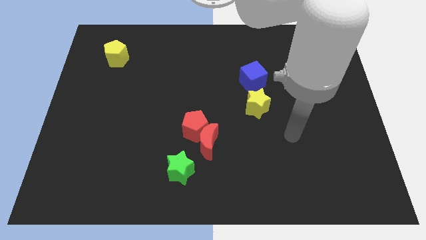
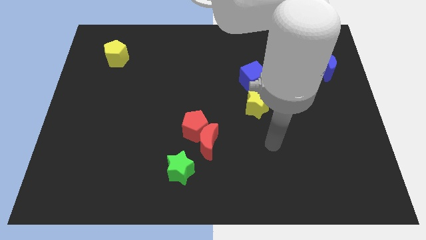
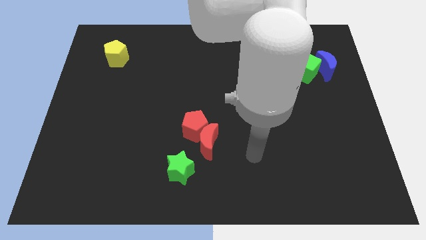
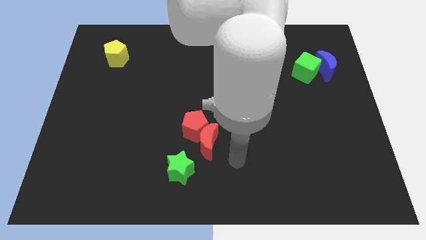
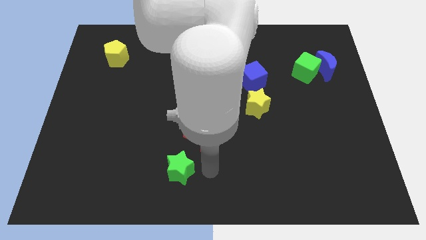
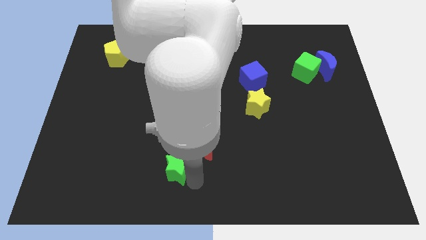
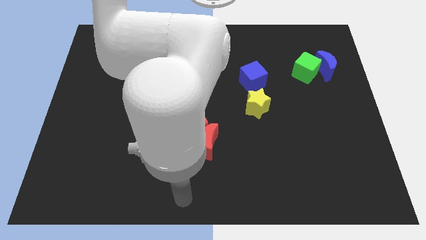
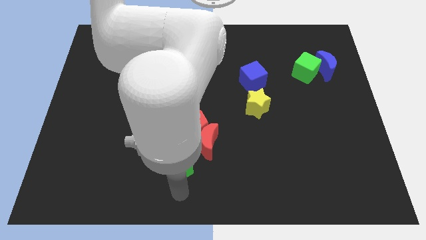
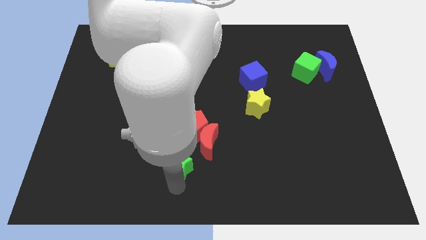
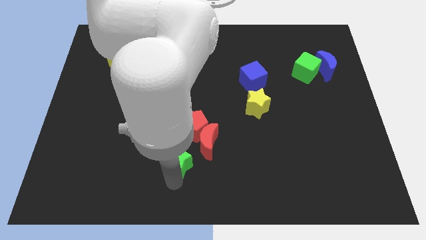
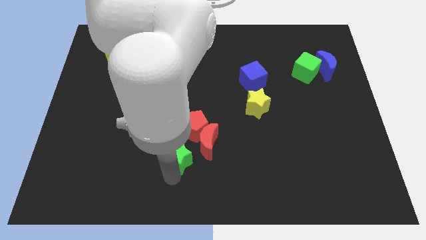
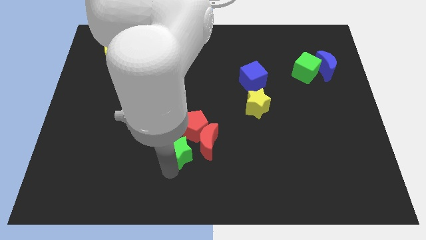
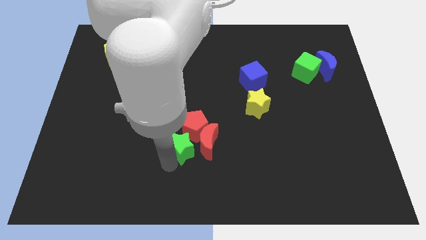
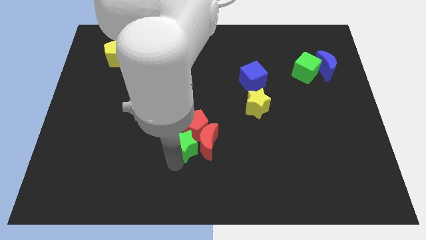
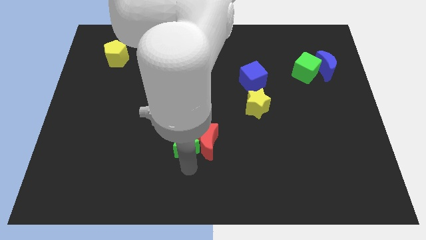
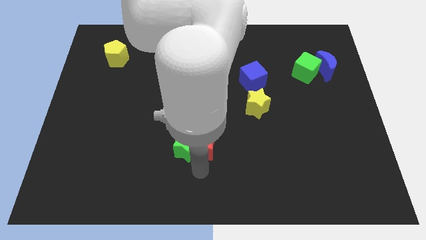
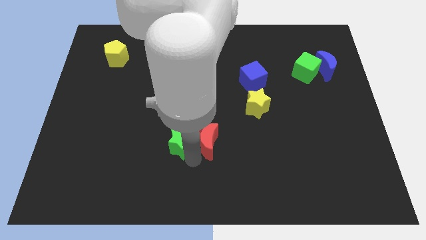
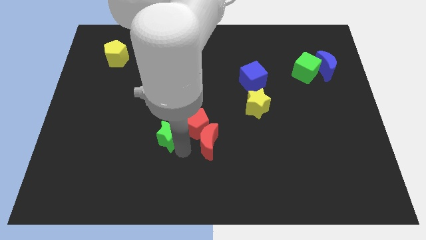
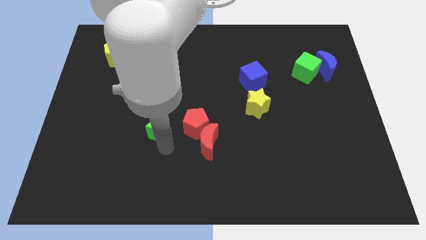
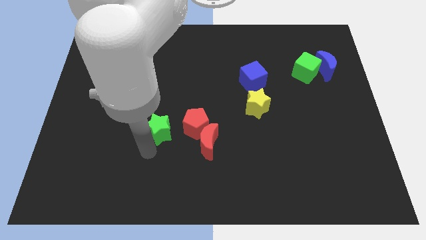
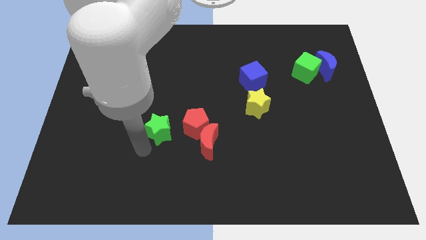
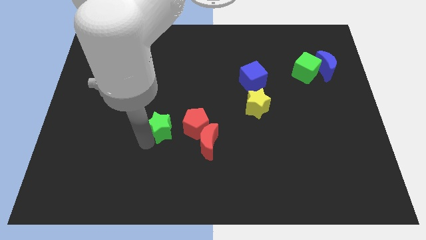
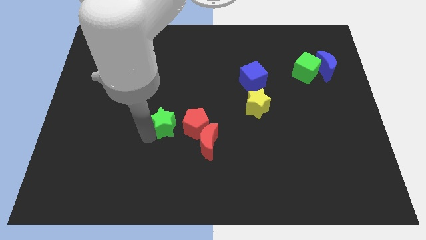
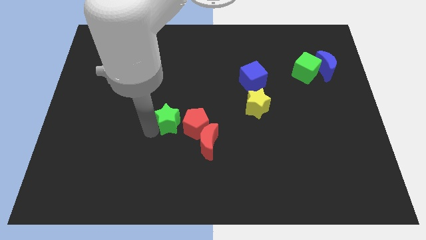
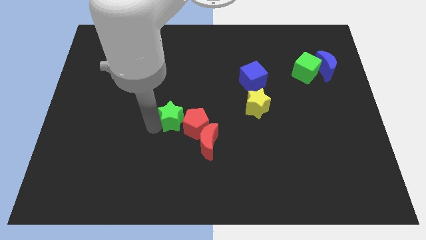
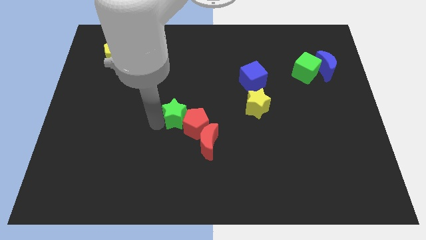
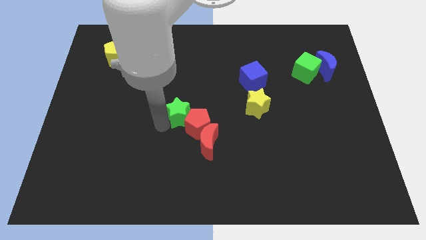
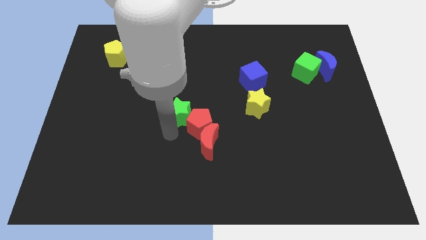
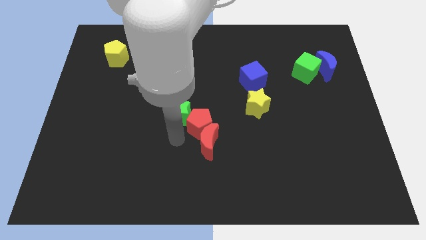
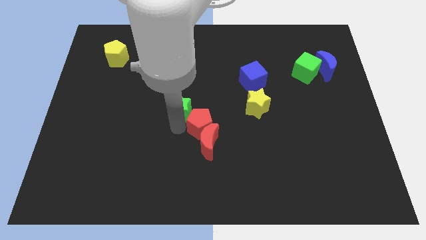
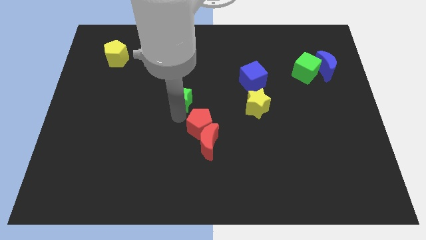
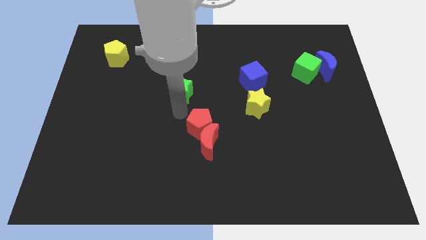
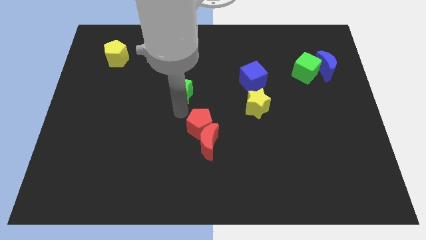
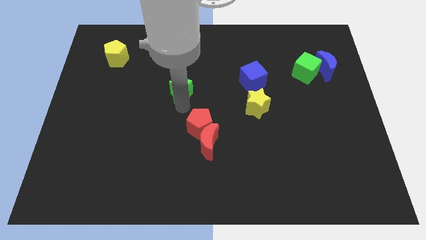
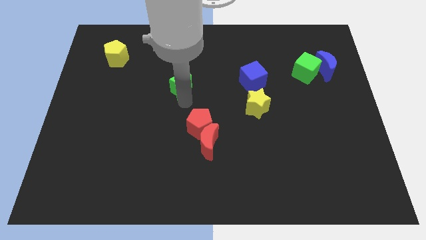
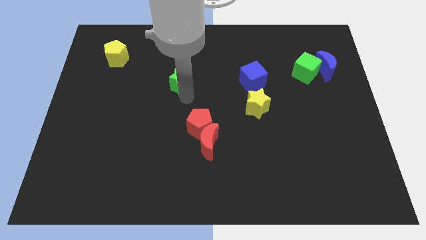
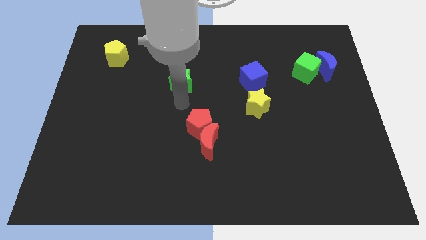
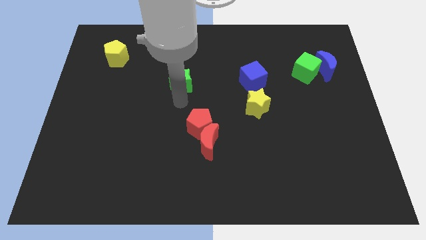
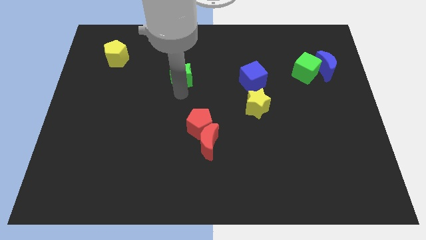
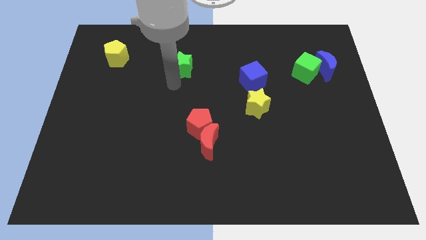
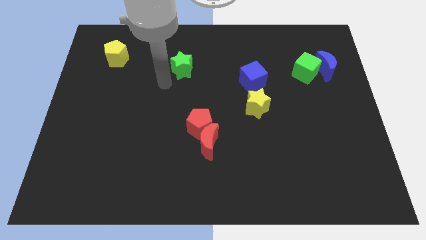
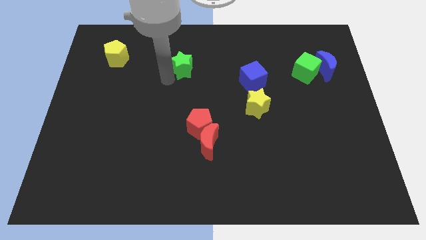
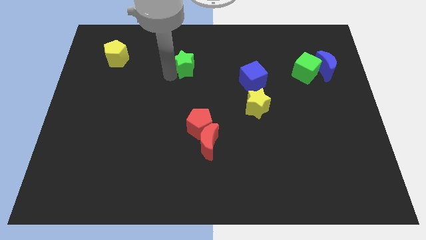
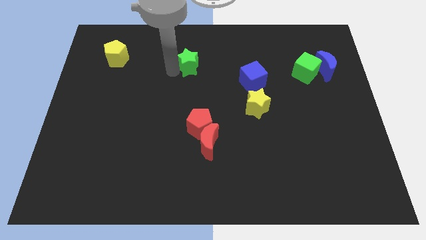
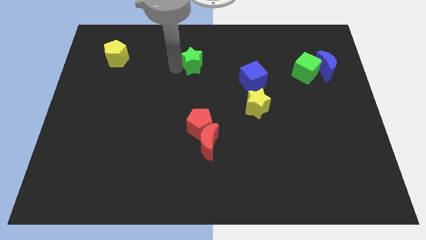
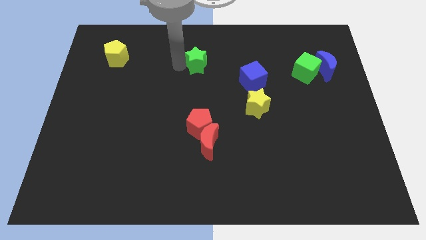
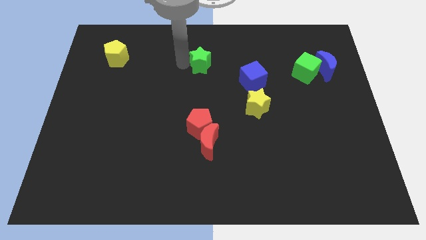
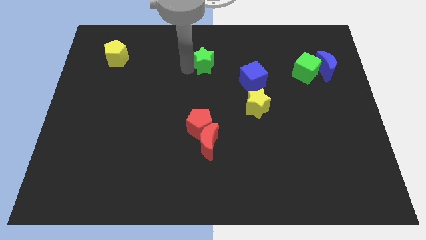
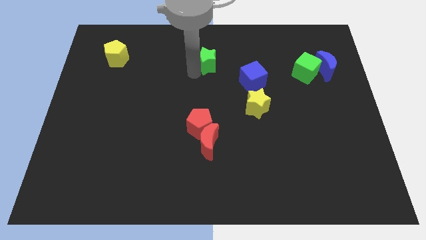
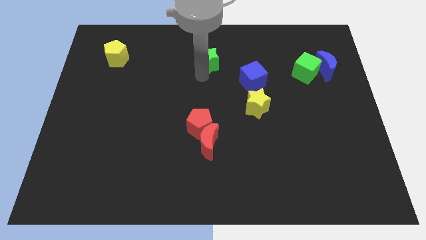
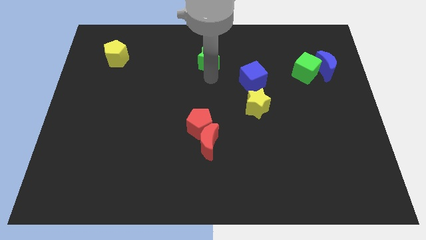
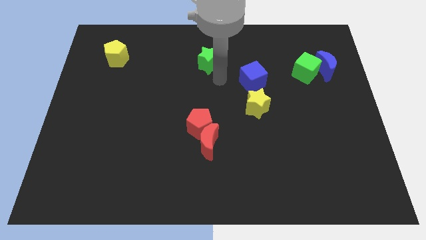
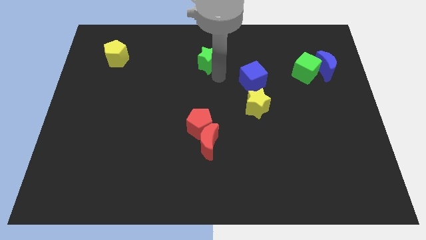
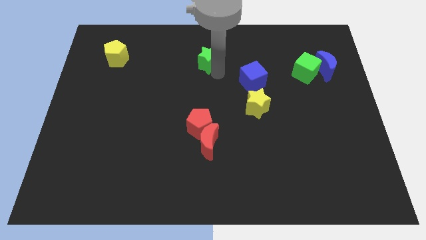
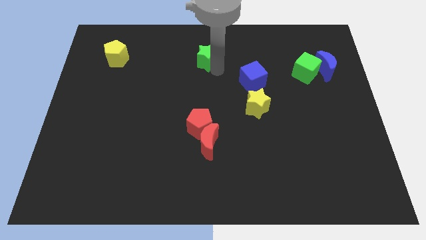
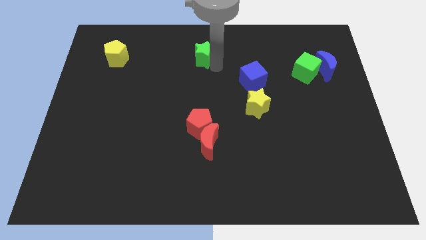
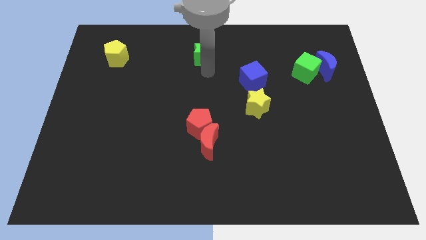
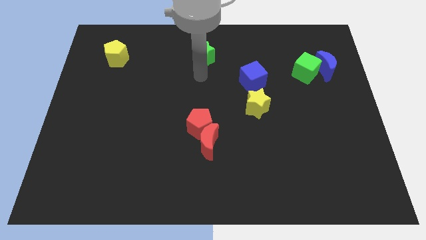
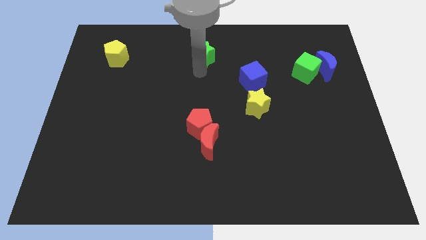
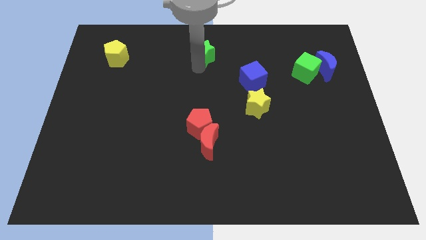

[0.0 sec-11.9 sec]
move the green star to the towards your base

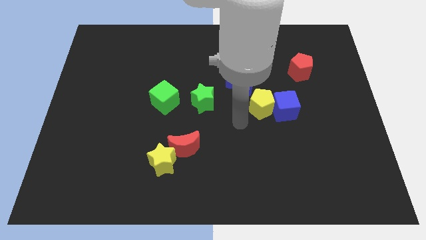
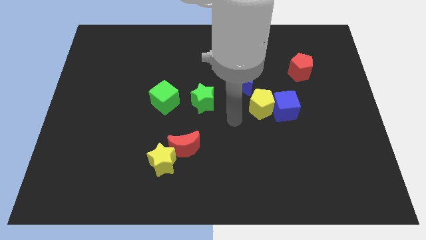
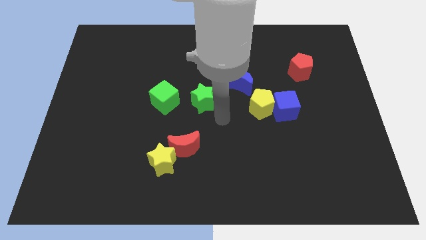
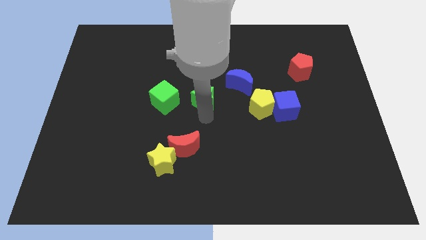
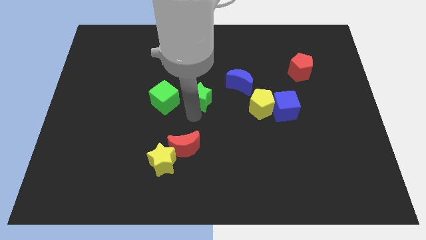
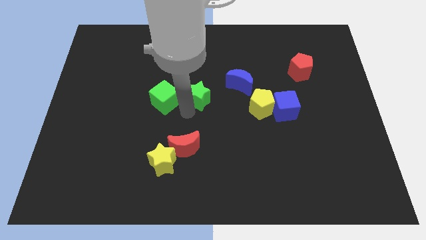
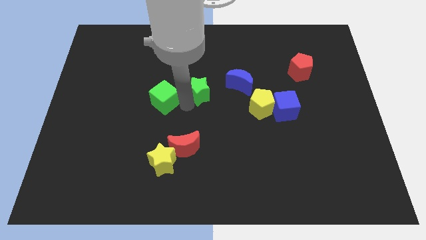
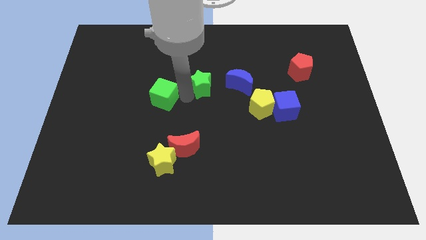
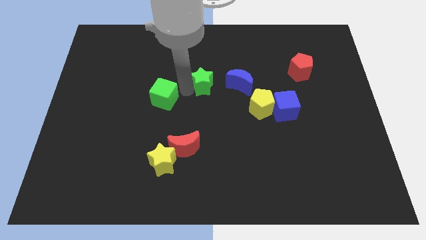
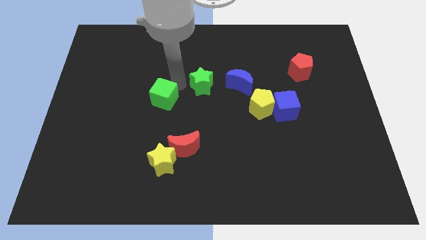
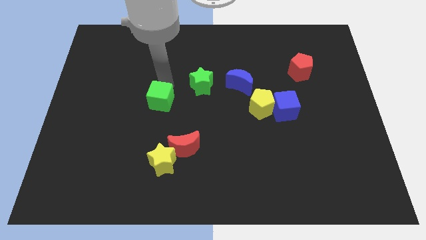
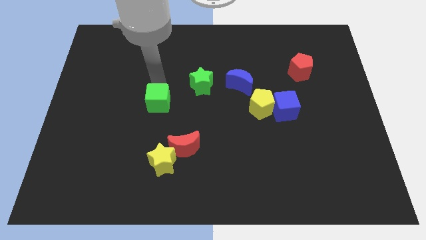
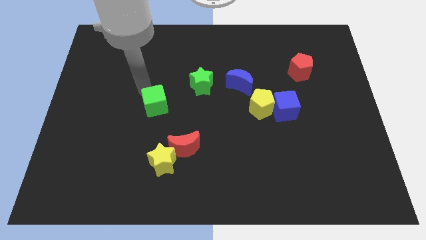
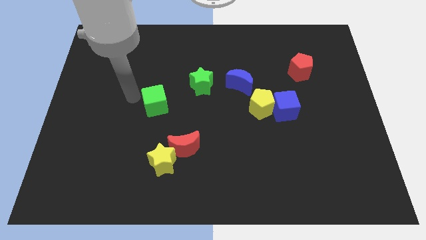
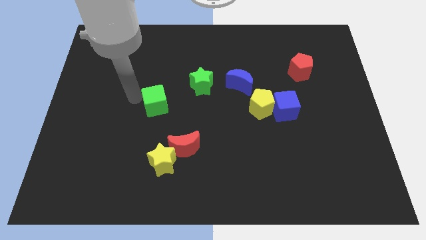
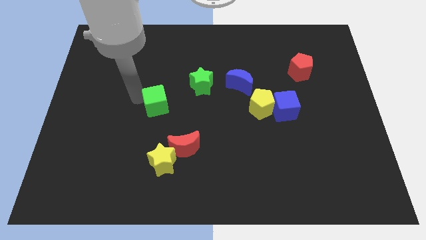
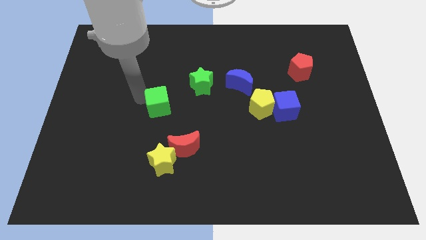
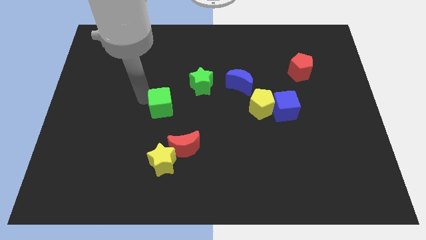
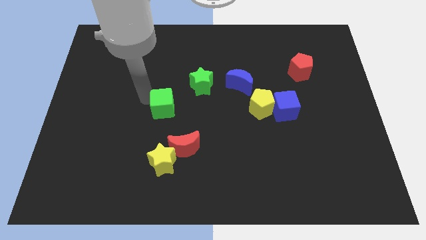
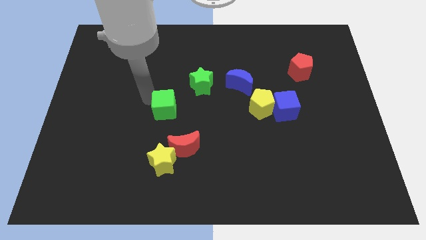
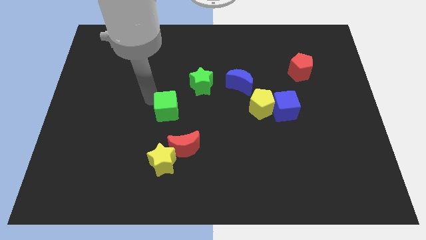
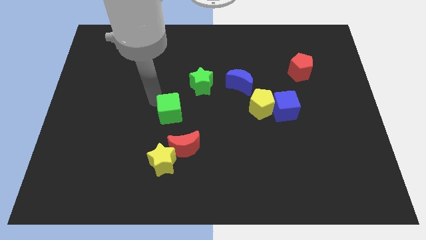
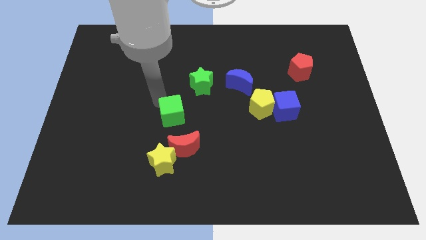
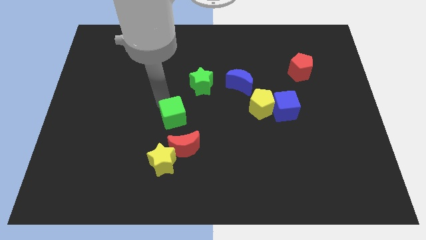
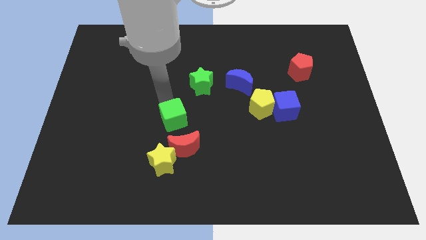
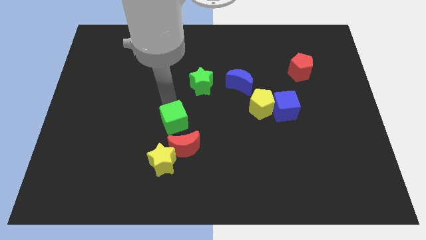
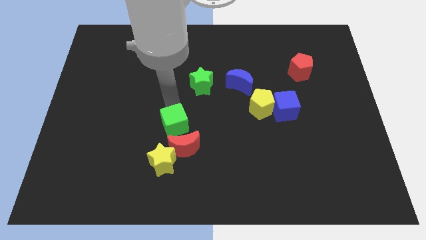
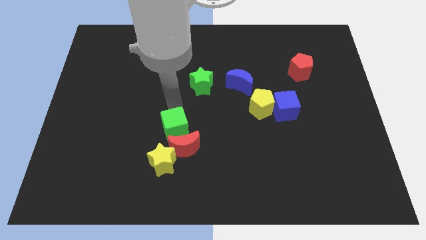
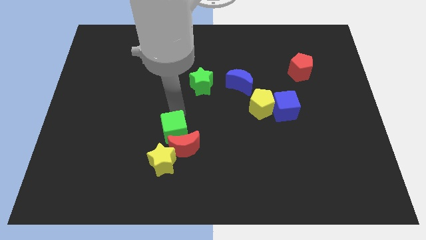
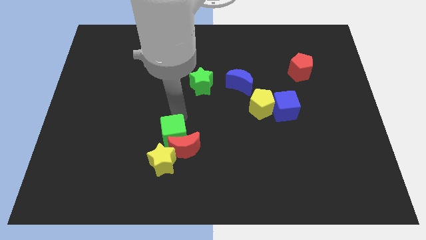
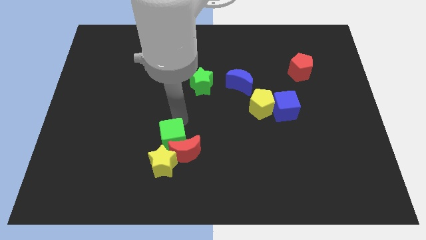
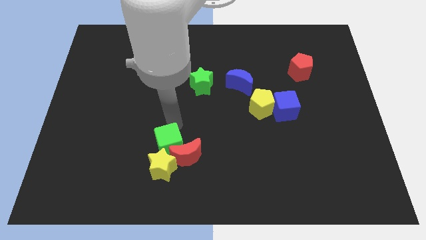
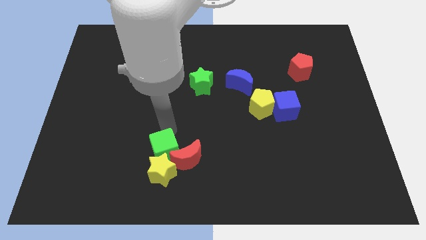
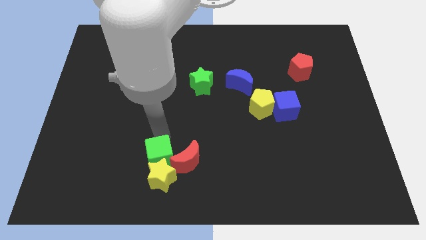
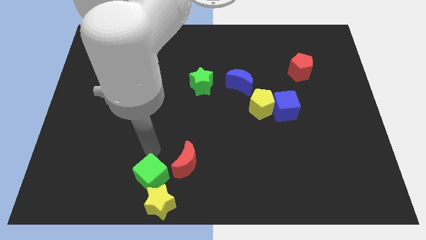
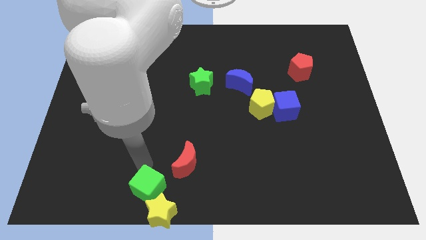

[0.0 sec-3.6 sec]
move the green cube to the bottom side
